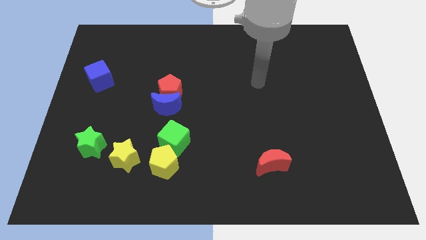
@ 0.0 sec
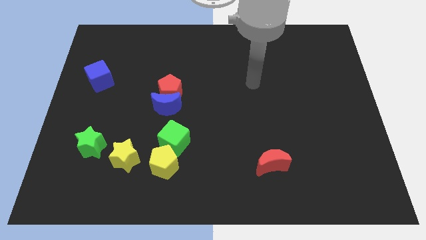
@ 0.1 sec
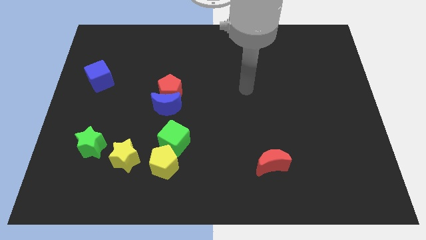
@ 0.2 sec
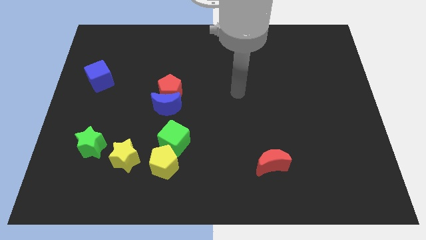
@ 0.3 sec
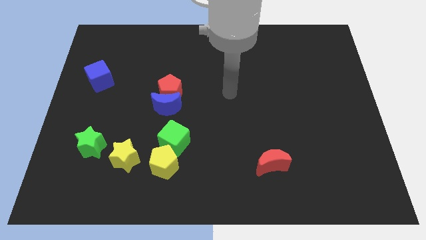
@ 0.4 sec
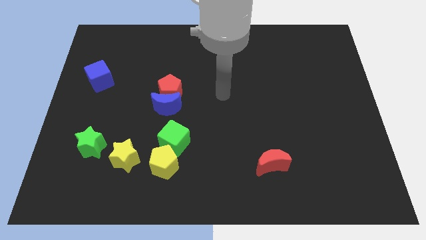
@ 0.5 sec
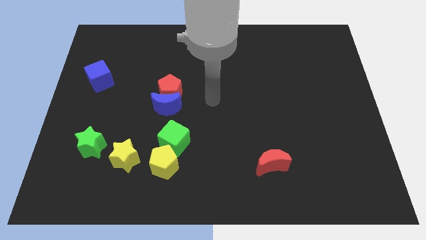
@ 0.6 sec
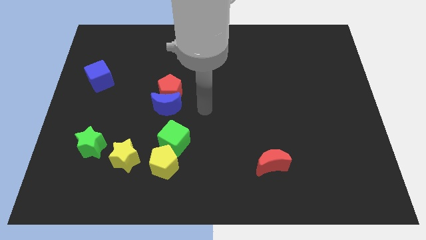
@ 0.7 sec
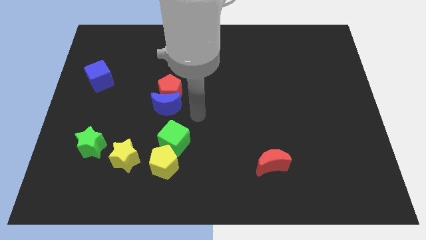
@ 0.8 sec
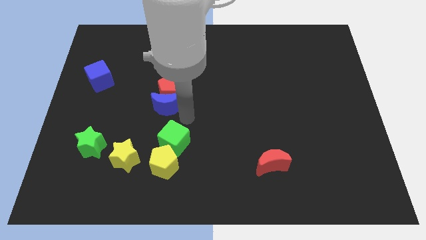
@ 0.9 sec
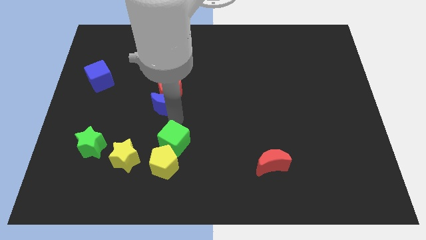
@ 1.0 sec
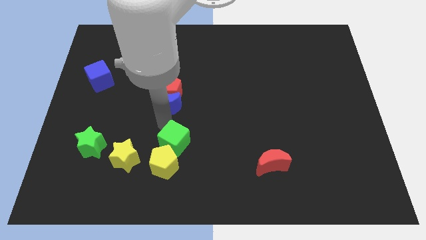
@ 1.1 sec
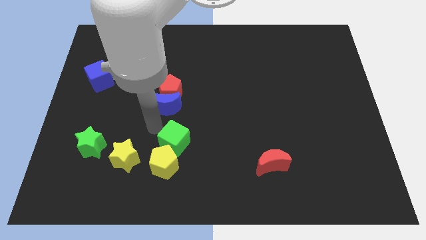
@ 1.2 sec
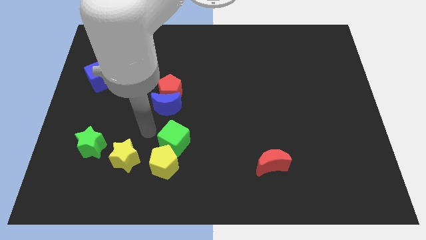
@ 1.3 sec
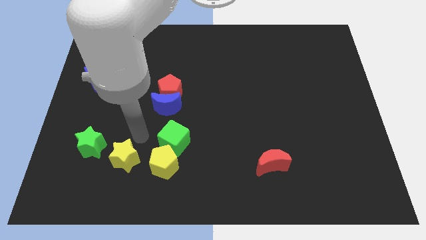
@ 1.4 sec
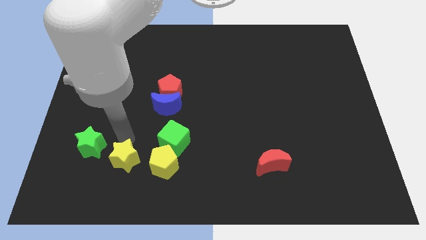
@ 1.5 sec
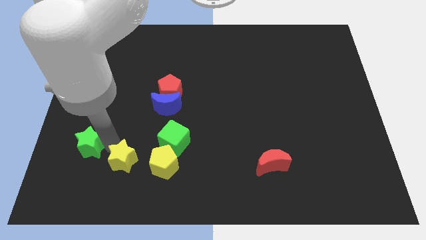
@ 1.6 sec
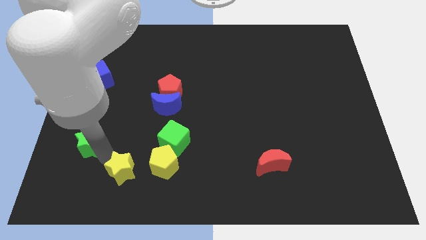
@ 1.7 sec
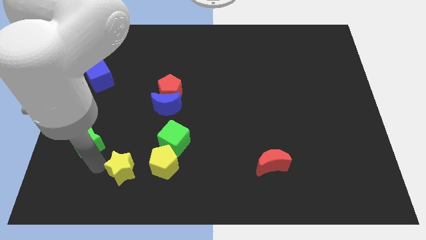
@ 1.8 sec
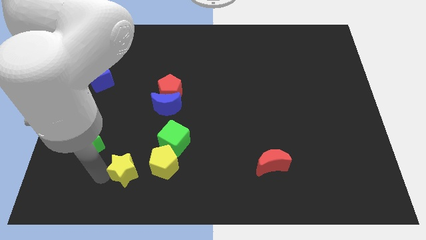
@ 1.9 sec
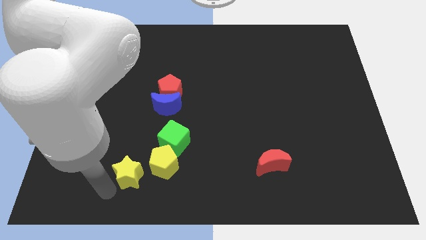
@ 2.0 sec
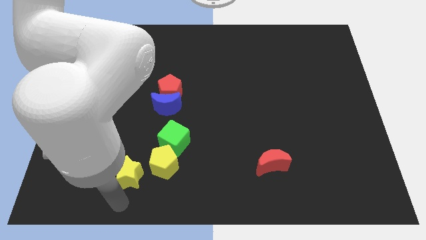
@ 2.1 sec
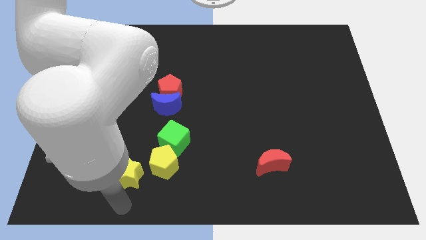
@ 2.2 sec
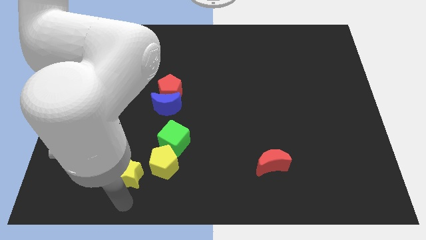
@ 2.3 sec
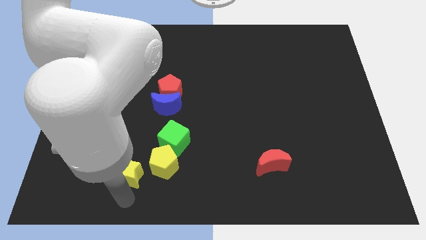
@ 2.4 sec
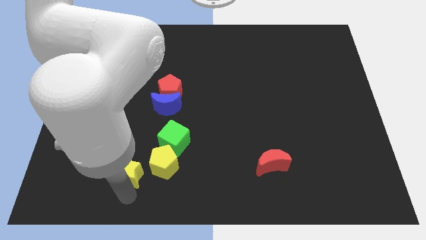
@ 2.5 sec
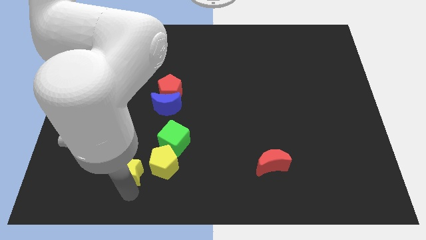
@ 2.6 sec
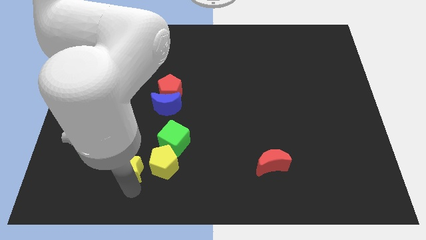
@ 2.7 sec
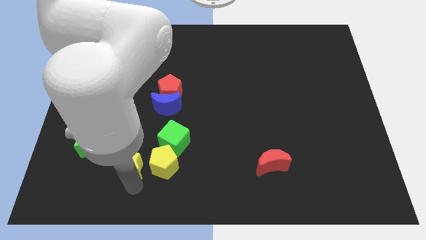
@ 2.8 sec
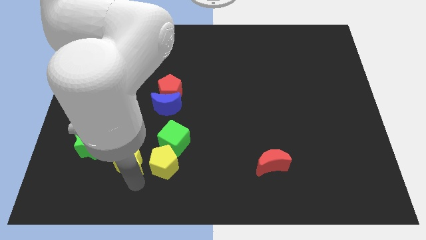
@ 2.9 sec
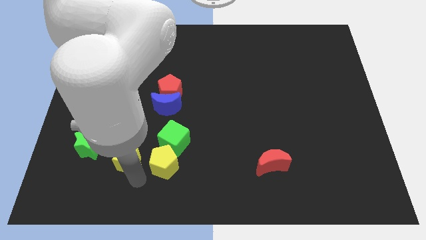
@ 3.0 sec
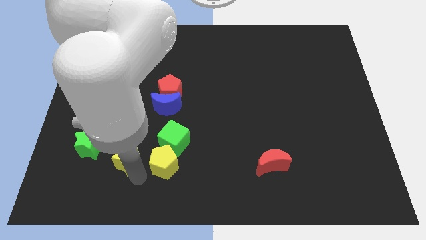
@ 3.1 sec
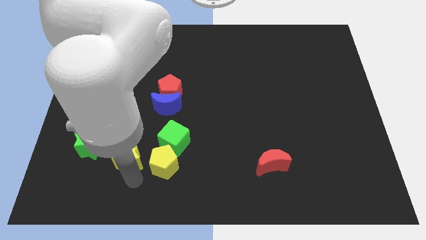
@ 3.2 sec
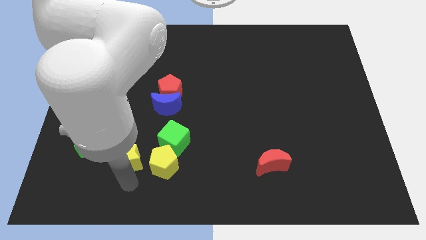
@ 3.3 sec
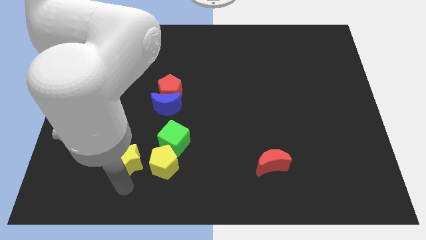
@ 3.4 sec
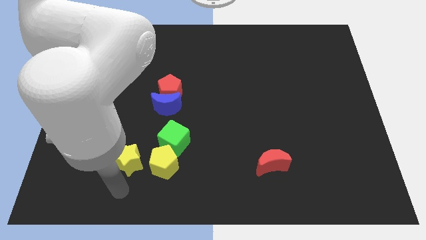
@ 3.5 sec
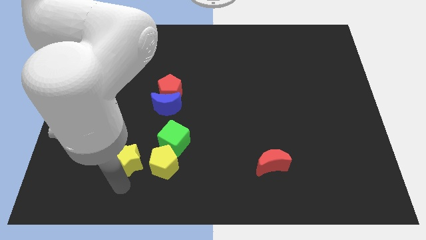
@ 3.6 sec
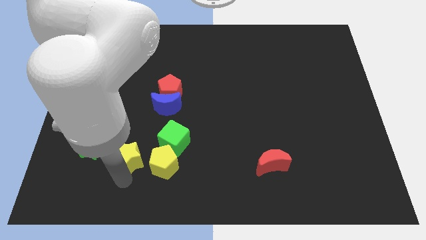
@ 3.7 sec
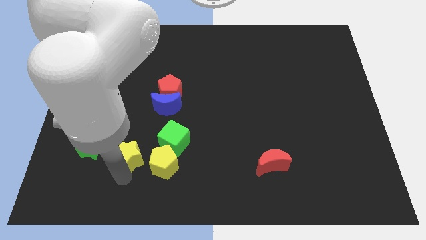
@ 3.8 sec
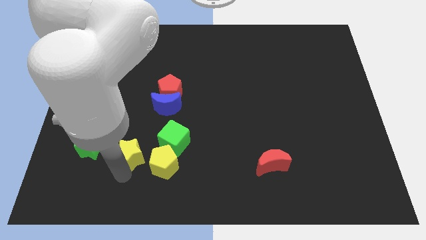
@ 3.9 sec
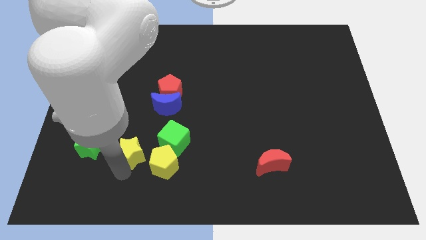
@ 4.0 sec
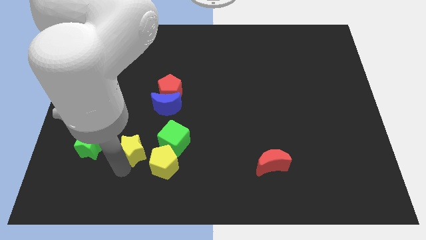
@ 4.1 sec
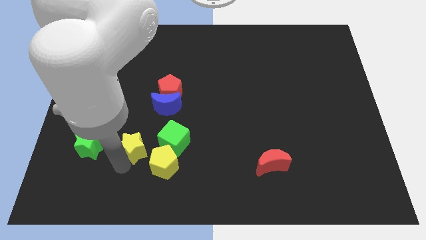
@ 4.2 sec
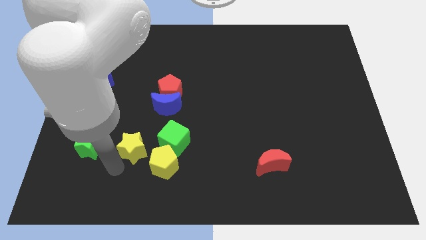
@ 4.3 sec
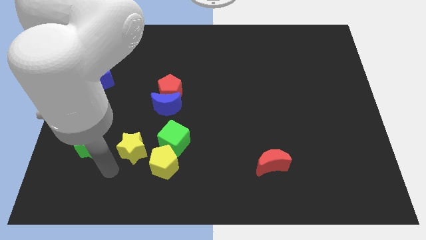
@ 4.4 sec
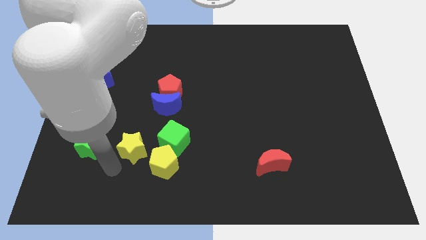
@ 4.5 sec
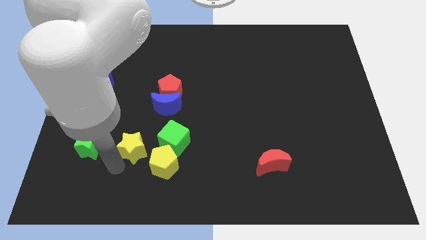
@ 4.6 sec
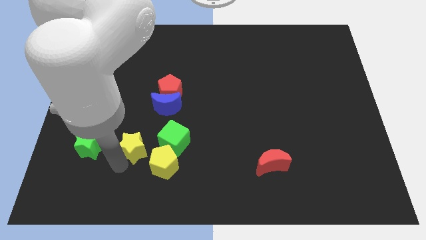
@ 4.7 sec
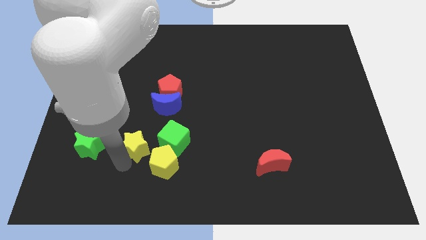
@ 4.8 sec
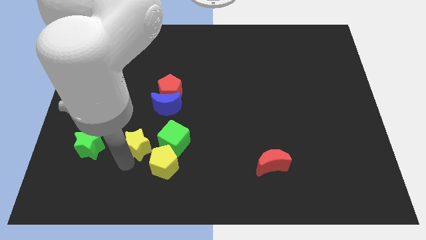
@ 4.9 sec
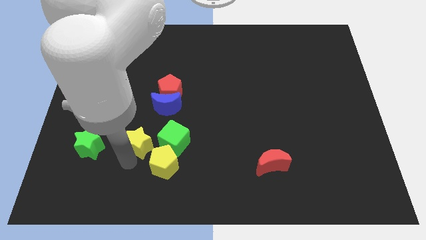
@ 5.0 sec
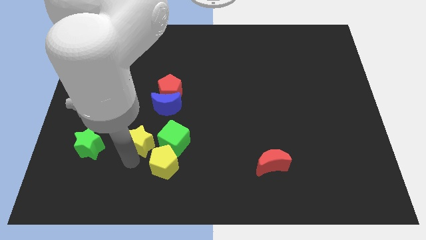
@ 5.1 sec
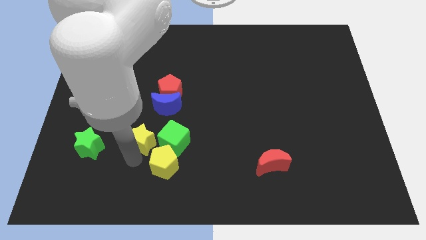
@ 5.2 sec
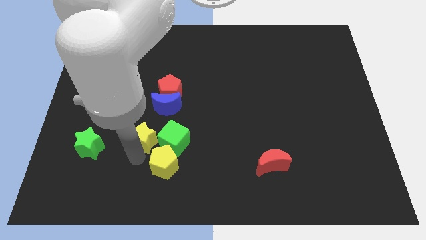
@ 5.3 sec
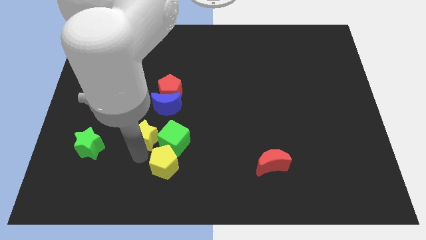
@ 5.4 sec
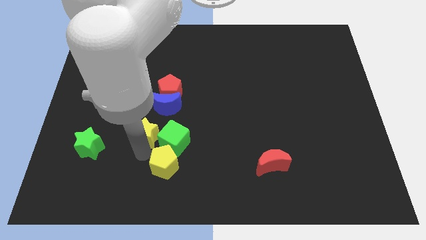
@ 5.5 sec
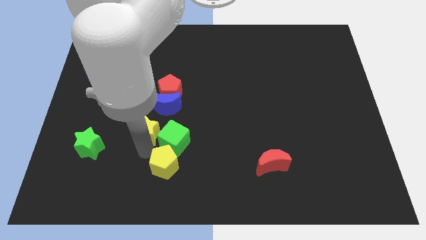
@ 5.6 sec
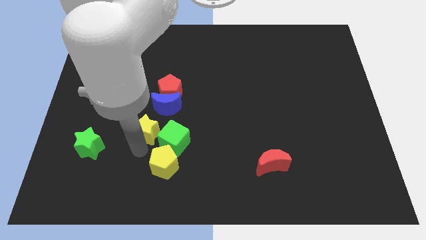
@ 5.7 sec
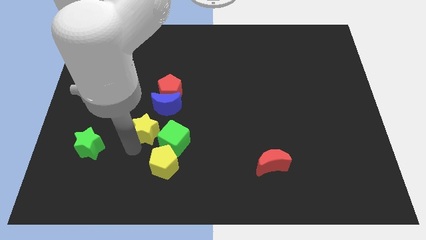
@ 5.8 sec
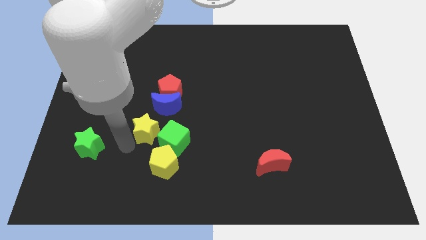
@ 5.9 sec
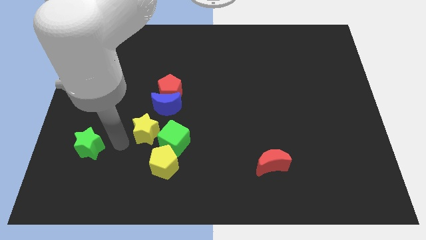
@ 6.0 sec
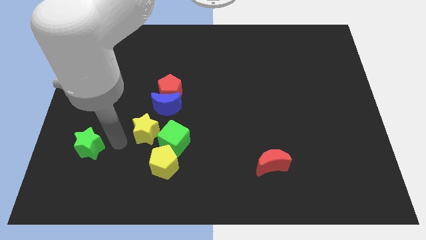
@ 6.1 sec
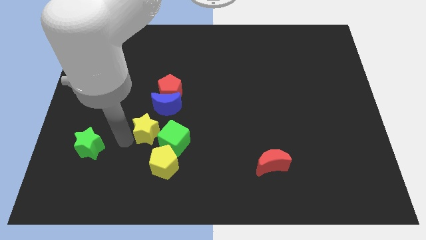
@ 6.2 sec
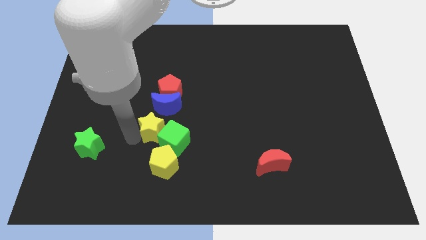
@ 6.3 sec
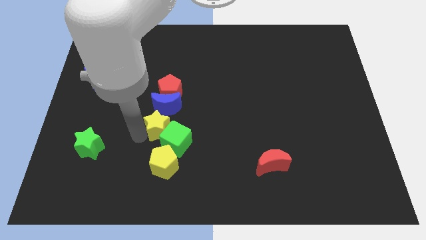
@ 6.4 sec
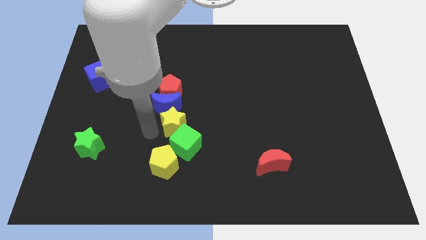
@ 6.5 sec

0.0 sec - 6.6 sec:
push the yellow star to the middle
